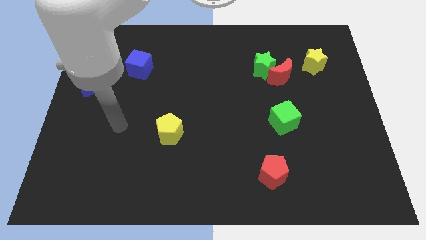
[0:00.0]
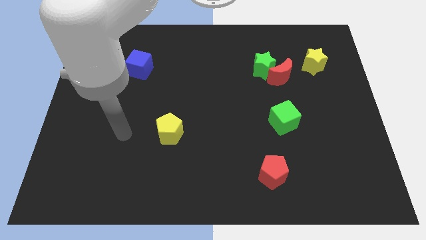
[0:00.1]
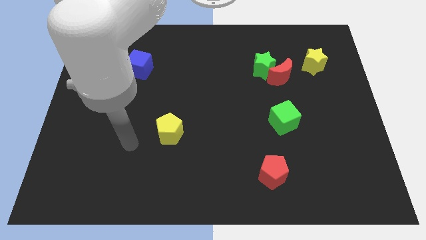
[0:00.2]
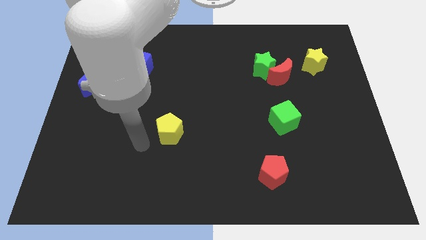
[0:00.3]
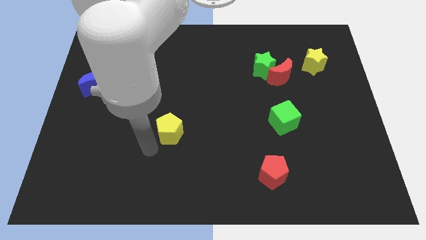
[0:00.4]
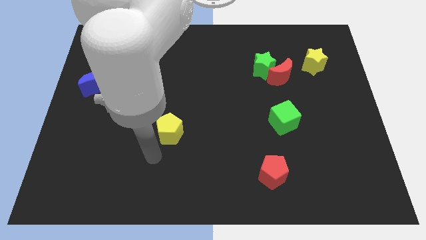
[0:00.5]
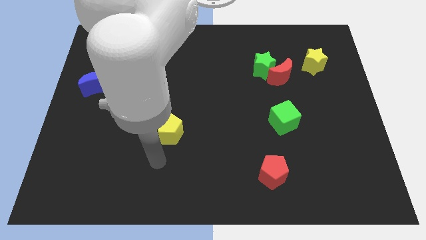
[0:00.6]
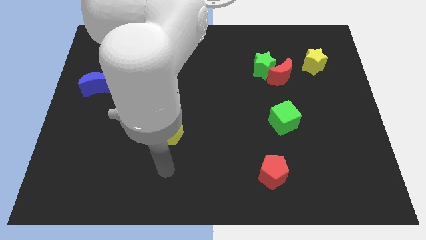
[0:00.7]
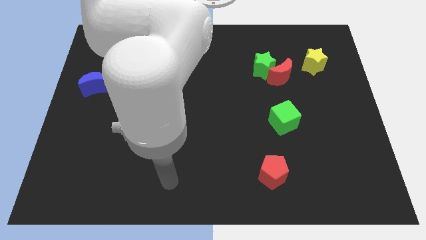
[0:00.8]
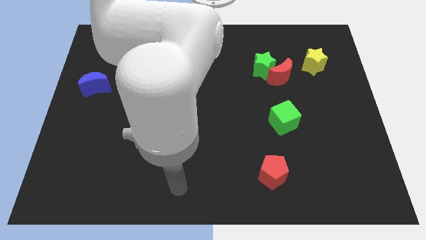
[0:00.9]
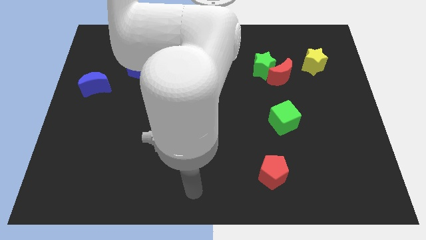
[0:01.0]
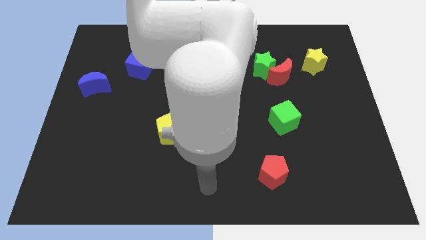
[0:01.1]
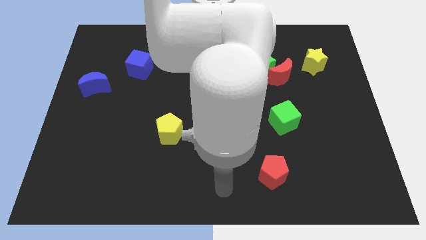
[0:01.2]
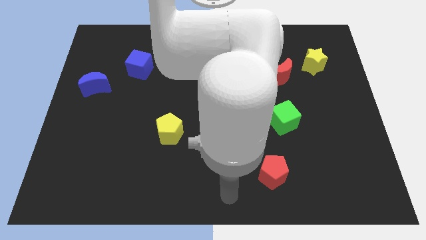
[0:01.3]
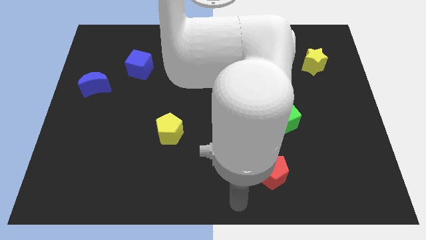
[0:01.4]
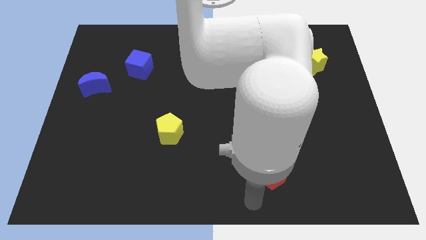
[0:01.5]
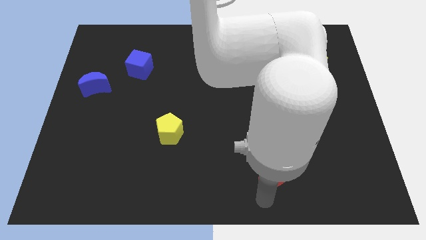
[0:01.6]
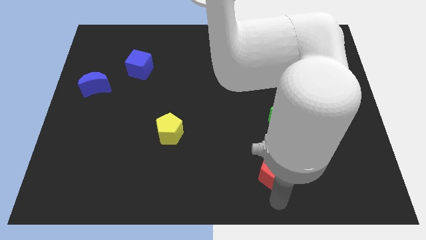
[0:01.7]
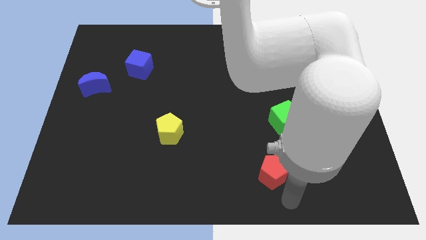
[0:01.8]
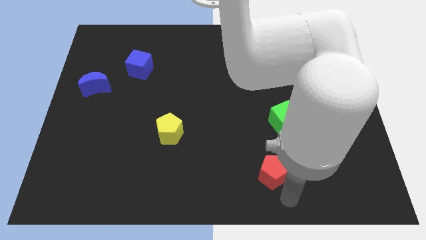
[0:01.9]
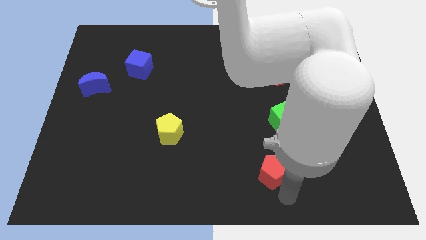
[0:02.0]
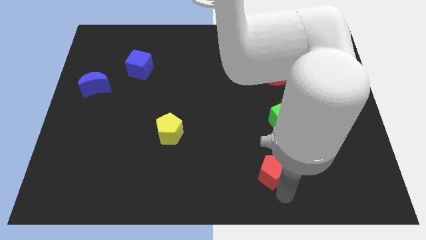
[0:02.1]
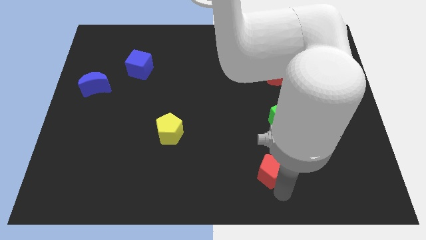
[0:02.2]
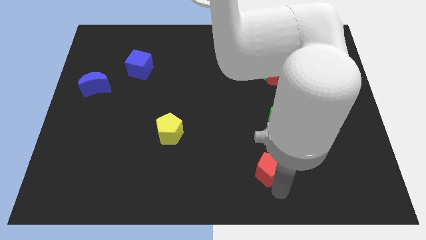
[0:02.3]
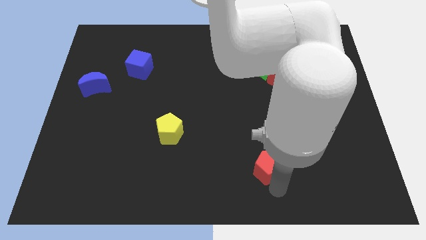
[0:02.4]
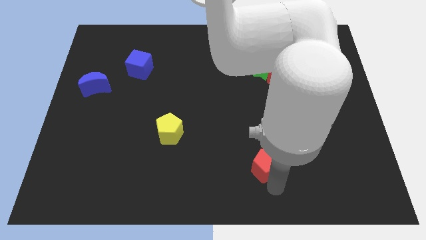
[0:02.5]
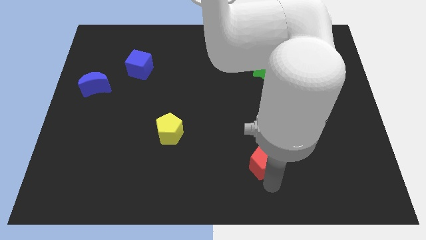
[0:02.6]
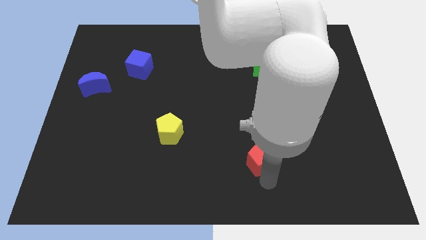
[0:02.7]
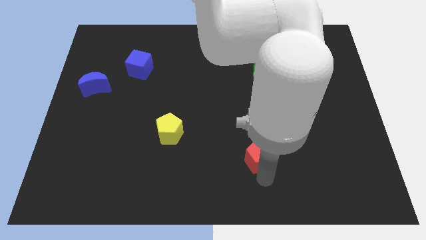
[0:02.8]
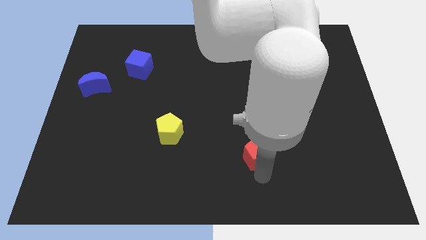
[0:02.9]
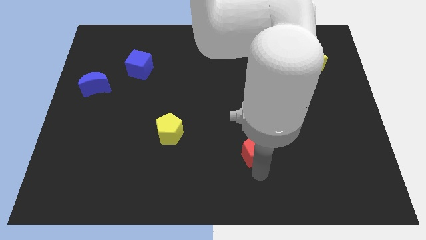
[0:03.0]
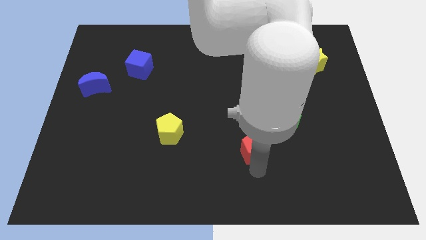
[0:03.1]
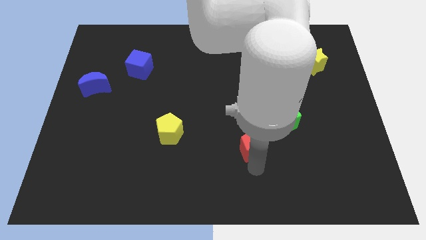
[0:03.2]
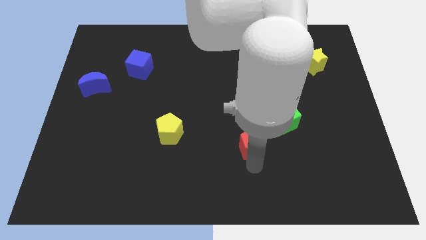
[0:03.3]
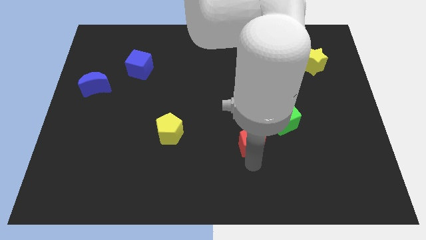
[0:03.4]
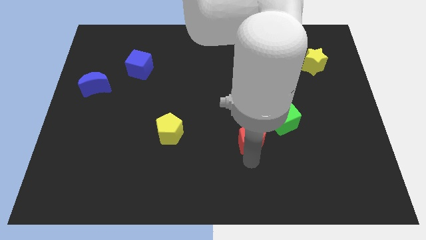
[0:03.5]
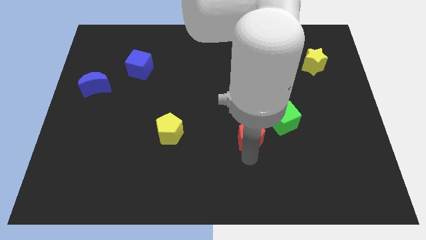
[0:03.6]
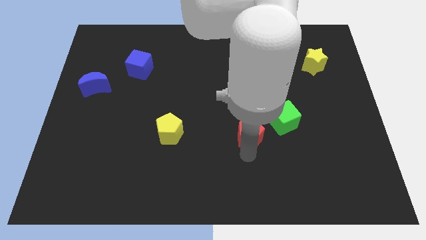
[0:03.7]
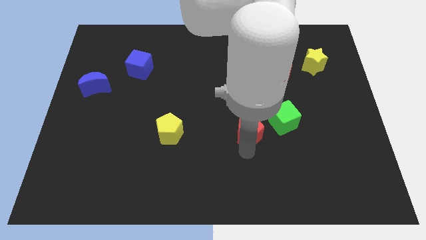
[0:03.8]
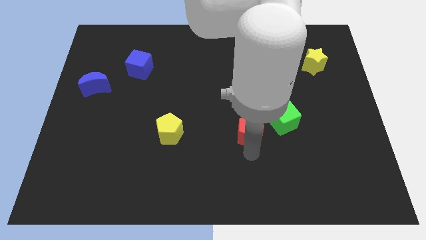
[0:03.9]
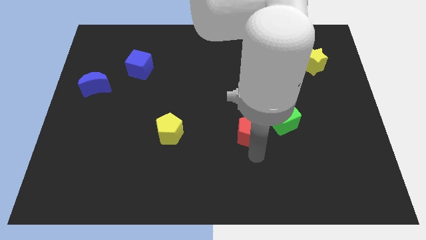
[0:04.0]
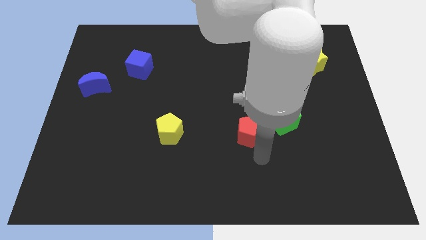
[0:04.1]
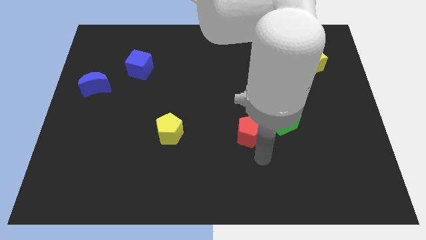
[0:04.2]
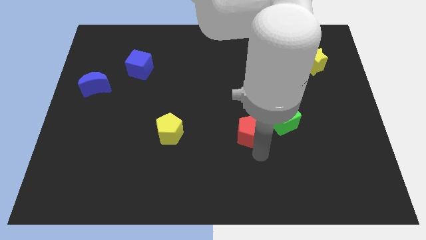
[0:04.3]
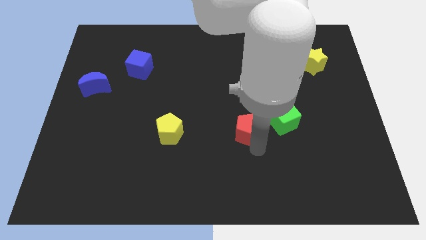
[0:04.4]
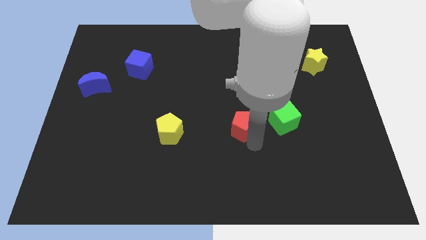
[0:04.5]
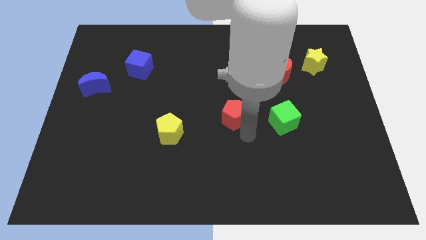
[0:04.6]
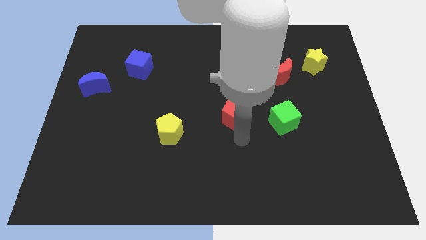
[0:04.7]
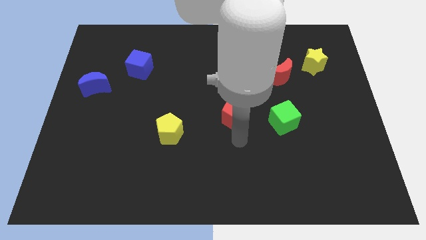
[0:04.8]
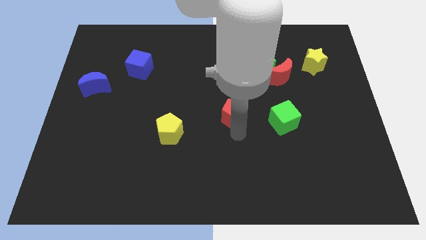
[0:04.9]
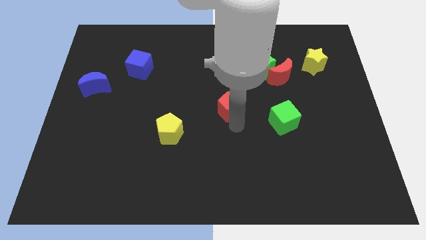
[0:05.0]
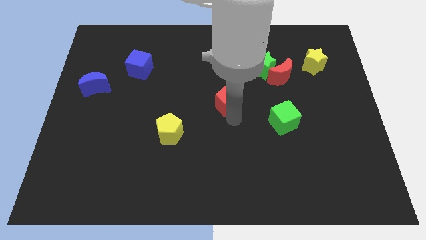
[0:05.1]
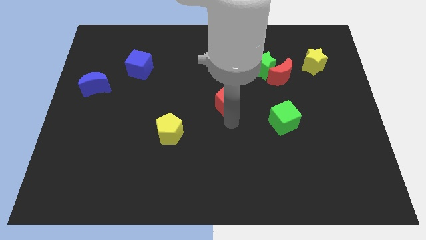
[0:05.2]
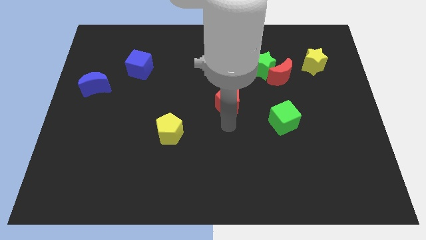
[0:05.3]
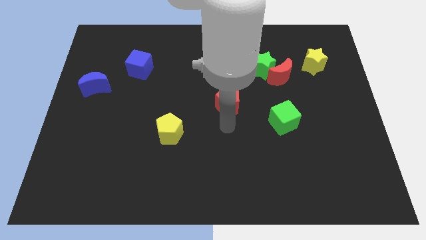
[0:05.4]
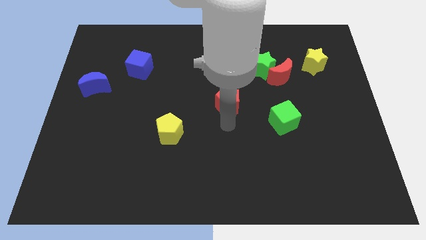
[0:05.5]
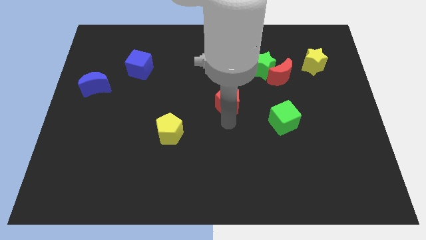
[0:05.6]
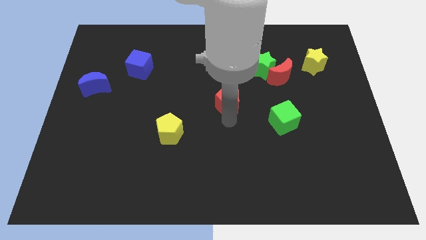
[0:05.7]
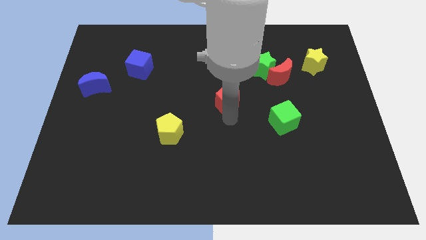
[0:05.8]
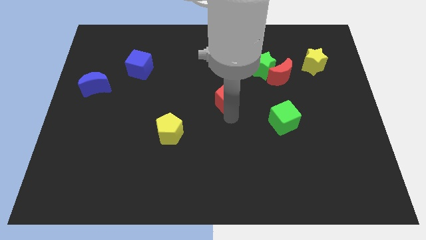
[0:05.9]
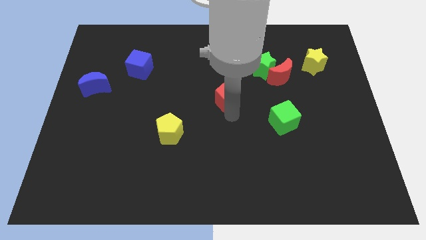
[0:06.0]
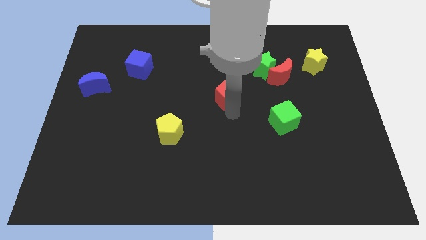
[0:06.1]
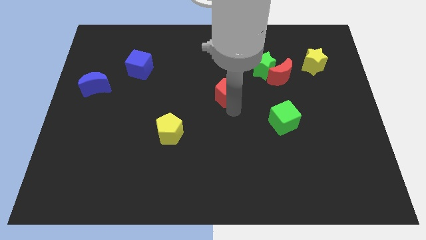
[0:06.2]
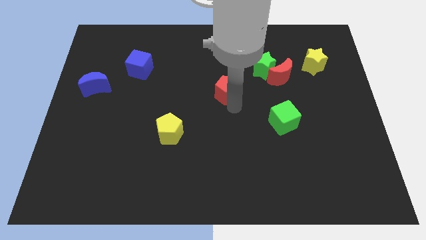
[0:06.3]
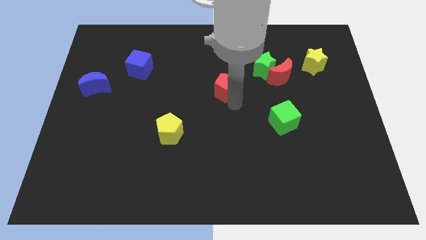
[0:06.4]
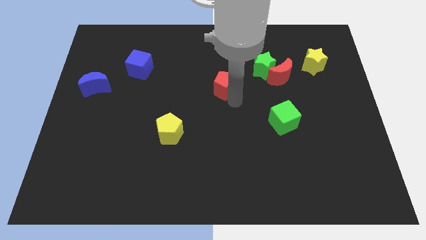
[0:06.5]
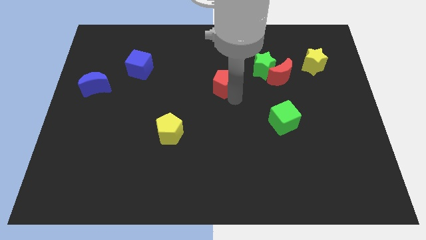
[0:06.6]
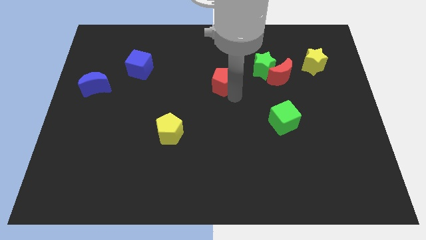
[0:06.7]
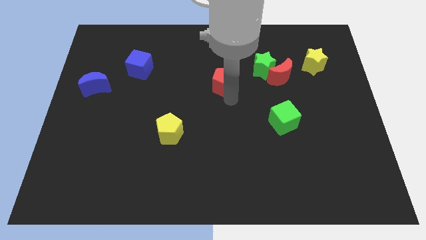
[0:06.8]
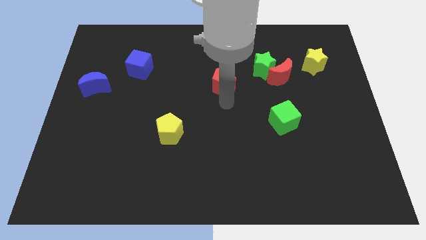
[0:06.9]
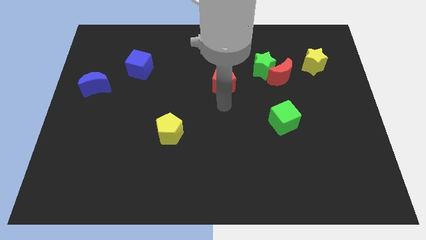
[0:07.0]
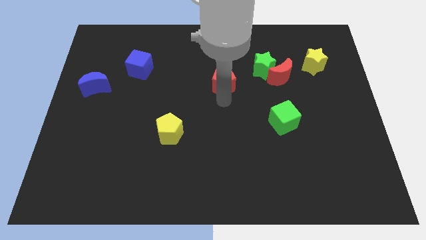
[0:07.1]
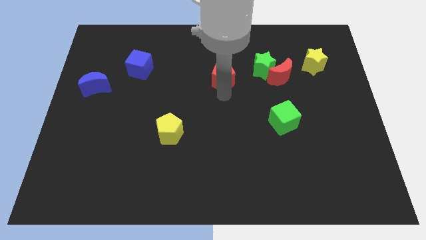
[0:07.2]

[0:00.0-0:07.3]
put the red pentagon to the left of the green star
